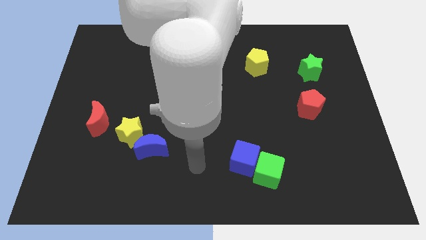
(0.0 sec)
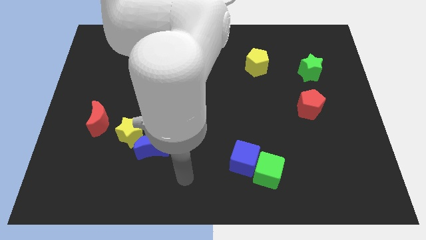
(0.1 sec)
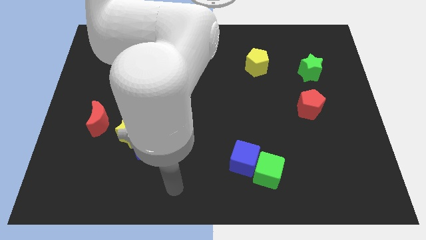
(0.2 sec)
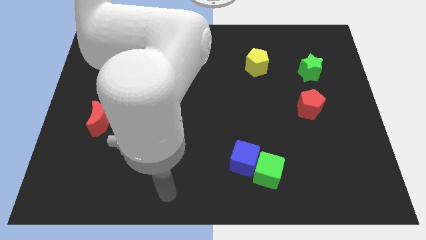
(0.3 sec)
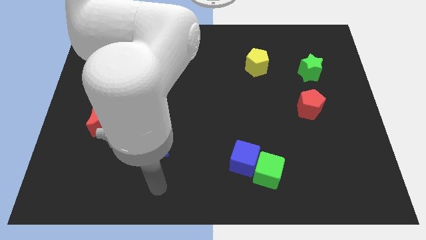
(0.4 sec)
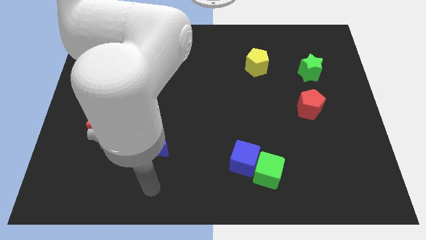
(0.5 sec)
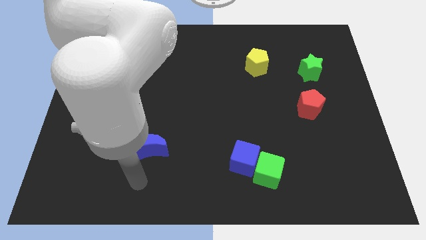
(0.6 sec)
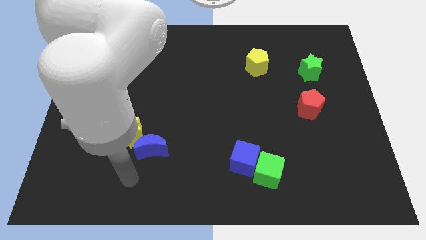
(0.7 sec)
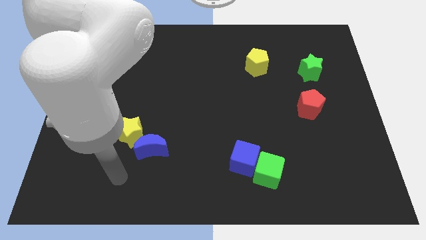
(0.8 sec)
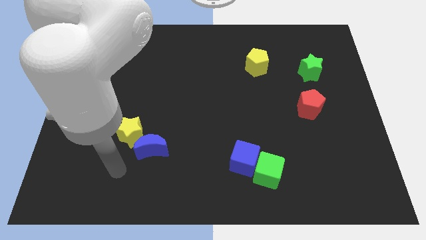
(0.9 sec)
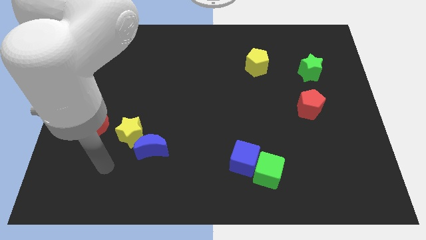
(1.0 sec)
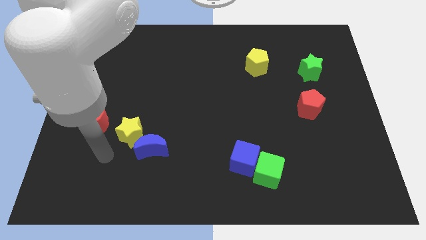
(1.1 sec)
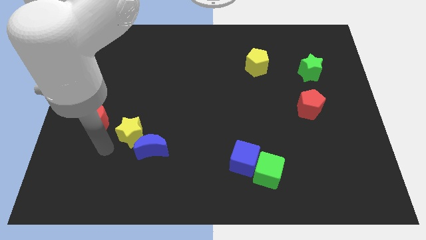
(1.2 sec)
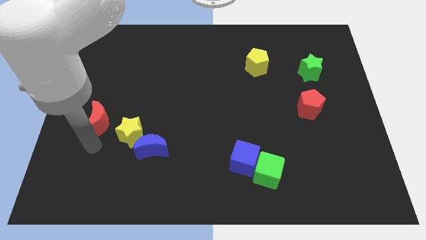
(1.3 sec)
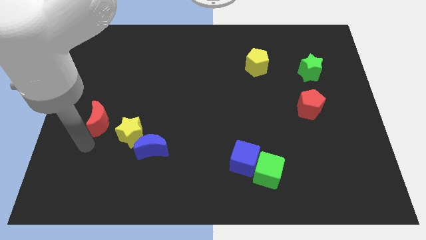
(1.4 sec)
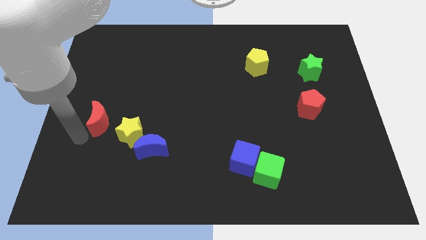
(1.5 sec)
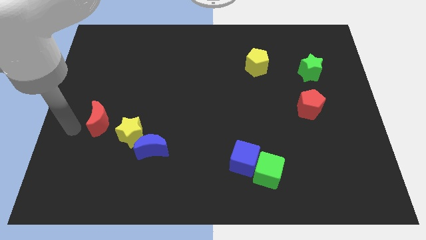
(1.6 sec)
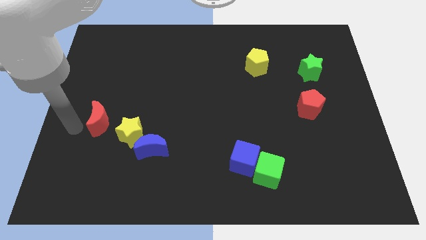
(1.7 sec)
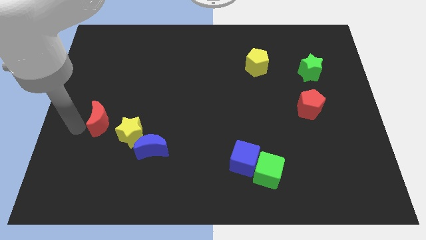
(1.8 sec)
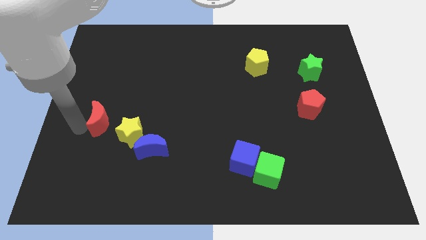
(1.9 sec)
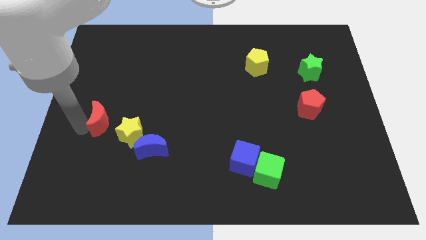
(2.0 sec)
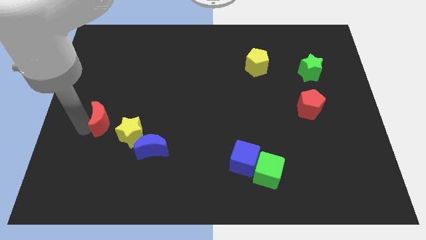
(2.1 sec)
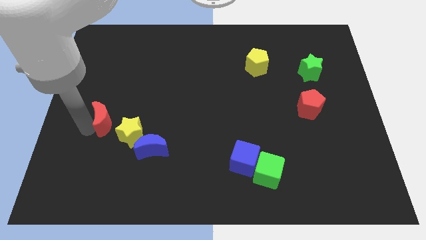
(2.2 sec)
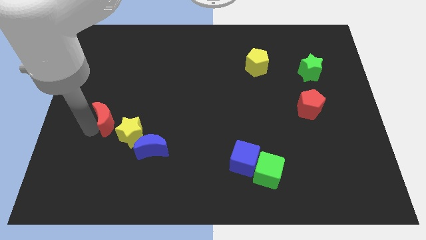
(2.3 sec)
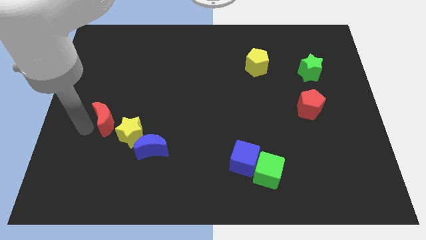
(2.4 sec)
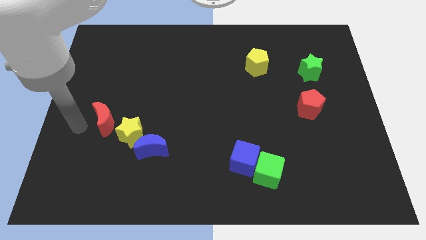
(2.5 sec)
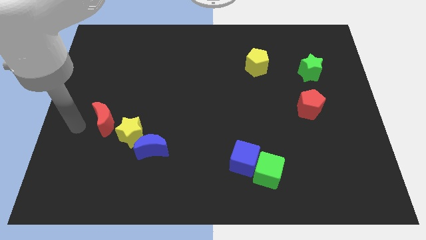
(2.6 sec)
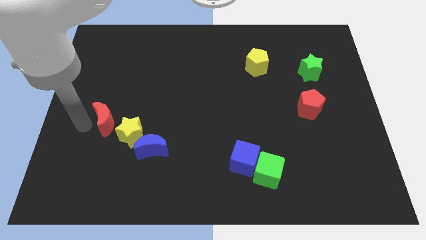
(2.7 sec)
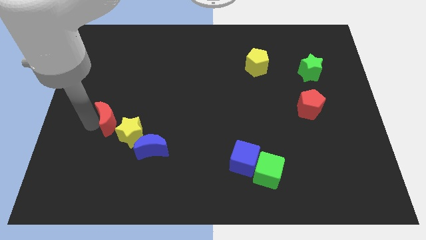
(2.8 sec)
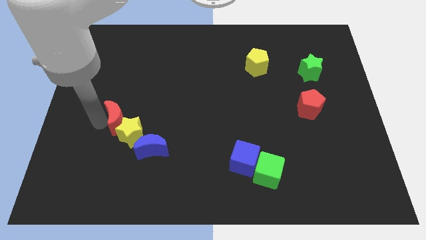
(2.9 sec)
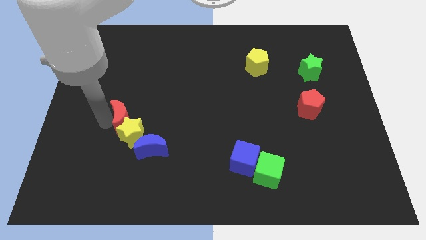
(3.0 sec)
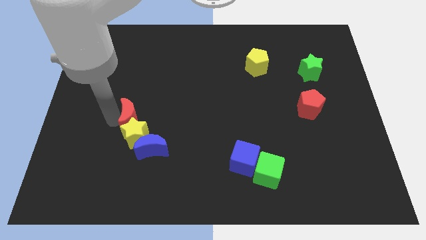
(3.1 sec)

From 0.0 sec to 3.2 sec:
push the red moon somewhat right

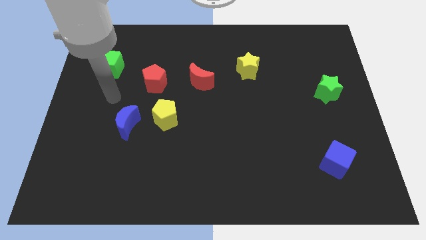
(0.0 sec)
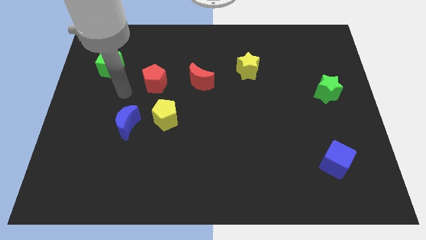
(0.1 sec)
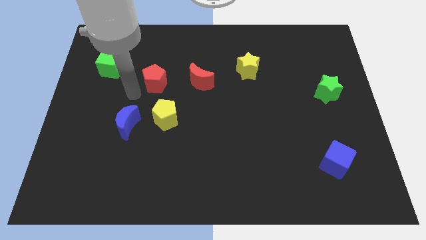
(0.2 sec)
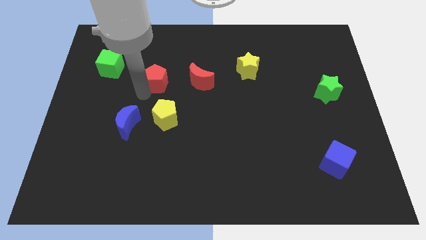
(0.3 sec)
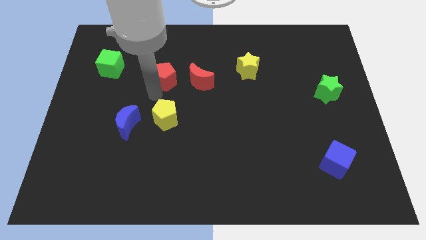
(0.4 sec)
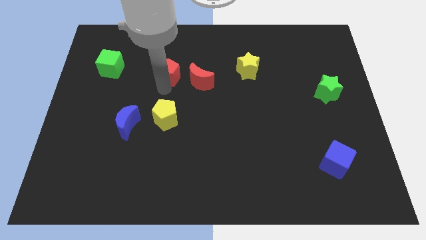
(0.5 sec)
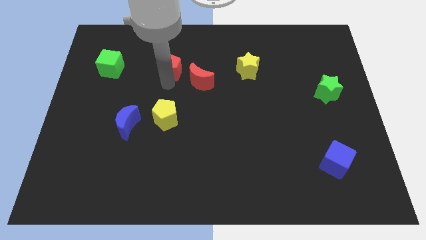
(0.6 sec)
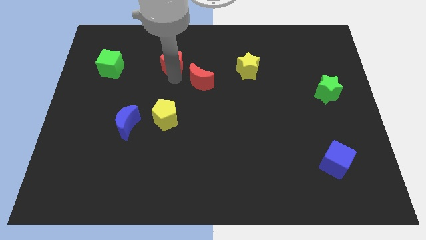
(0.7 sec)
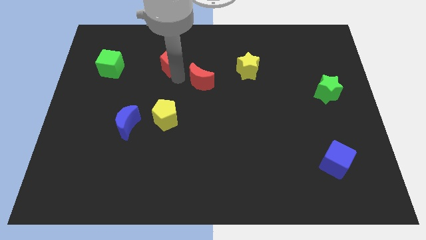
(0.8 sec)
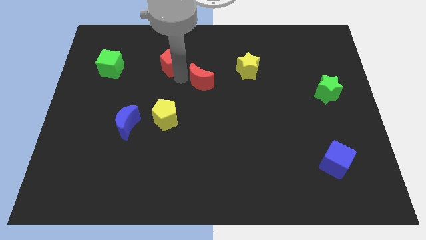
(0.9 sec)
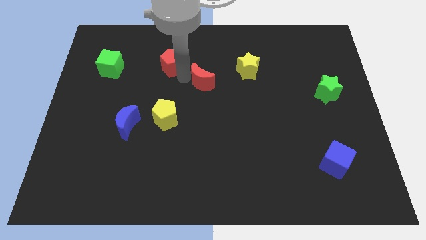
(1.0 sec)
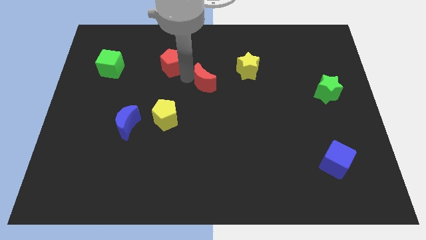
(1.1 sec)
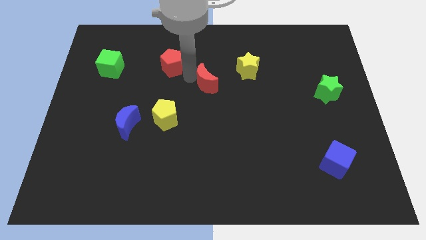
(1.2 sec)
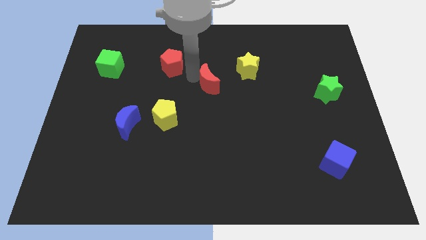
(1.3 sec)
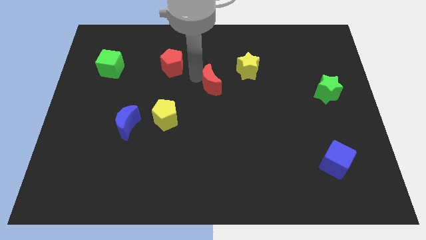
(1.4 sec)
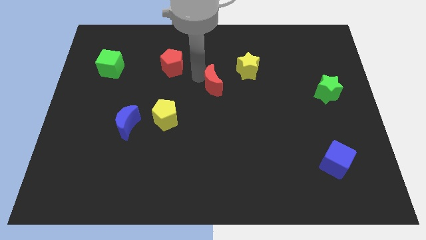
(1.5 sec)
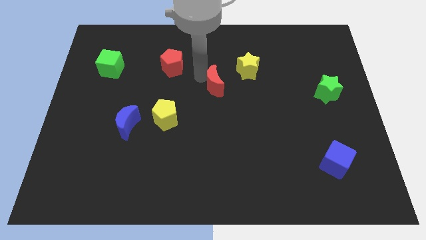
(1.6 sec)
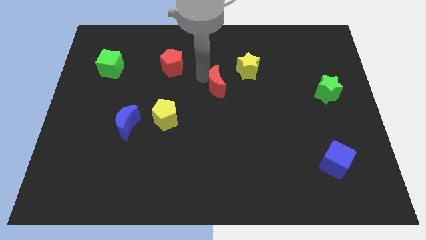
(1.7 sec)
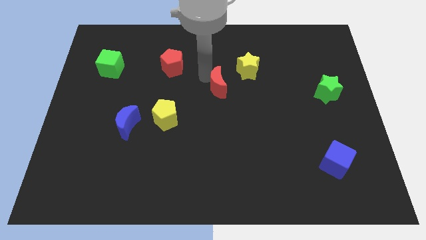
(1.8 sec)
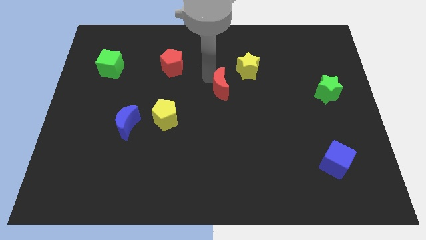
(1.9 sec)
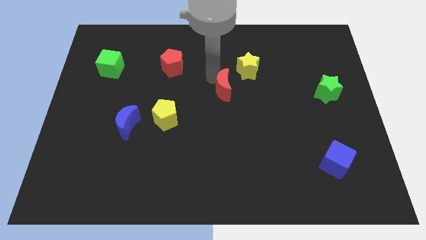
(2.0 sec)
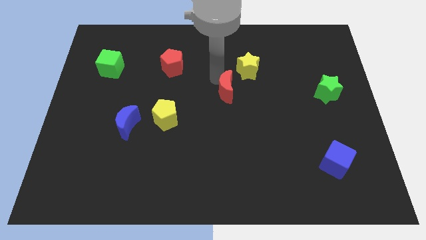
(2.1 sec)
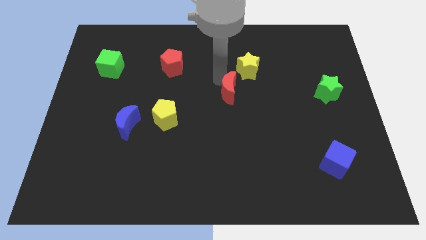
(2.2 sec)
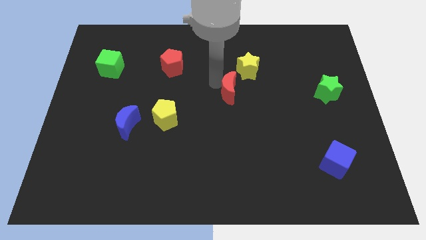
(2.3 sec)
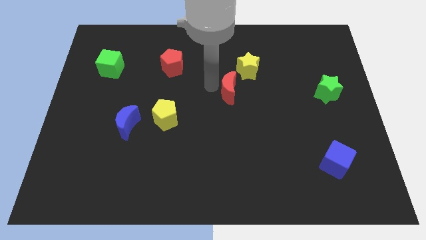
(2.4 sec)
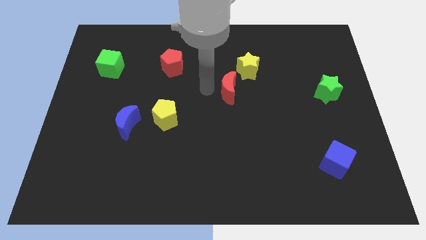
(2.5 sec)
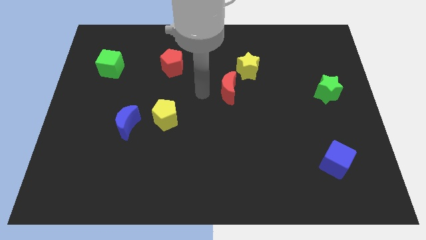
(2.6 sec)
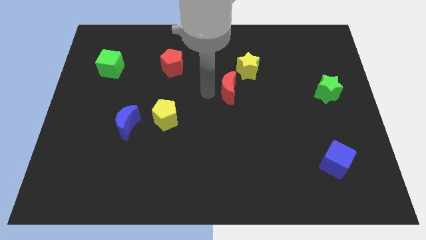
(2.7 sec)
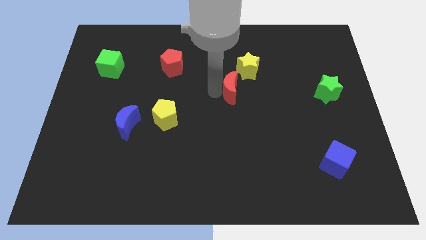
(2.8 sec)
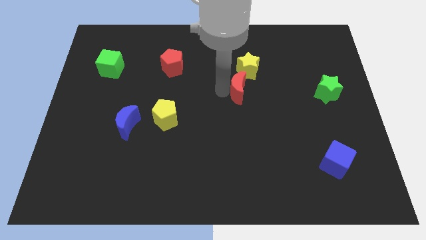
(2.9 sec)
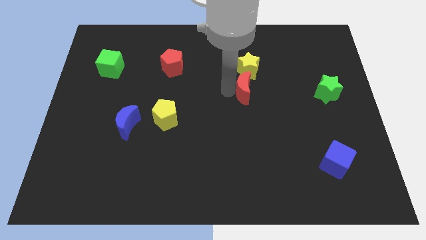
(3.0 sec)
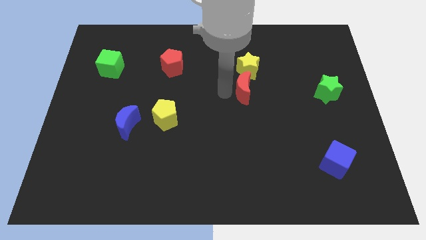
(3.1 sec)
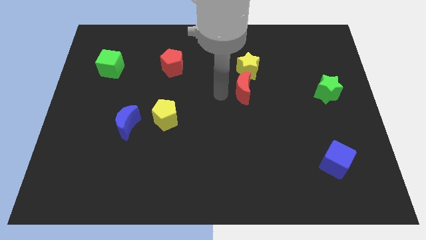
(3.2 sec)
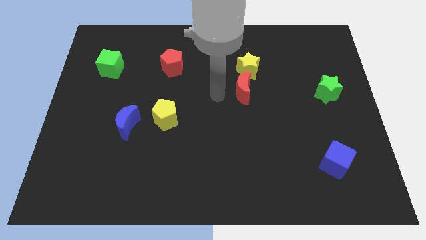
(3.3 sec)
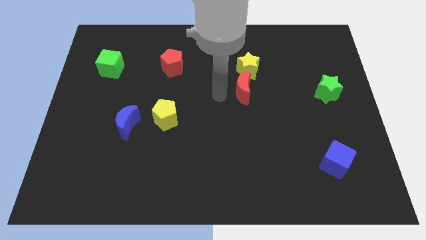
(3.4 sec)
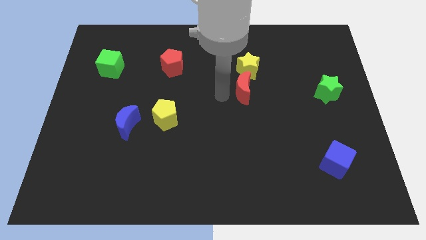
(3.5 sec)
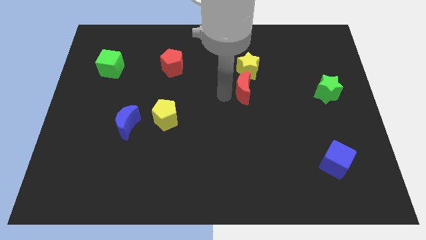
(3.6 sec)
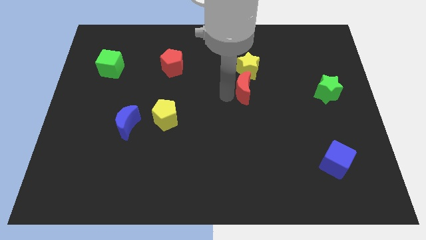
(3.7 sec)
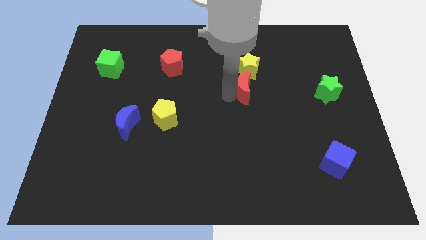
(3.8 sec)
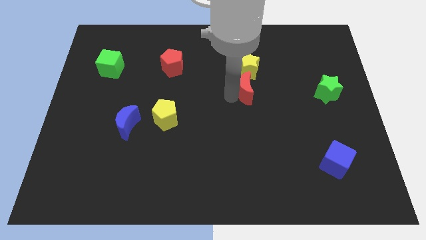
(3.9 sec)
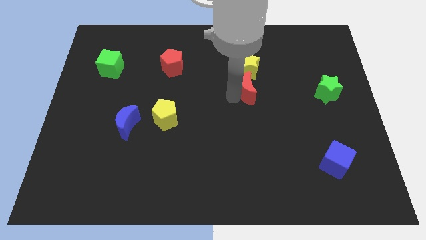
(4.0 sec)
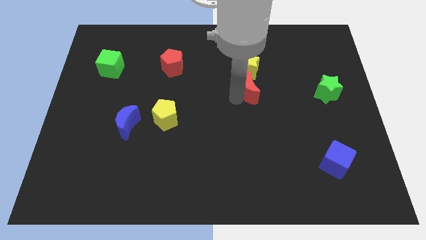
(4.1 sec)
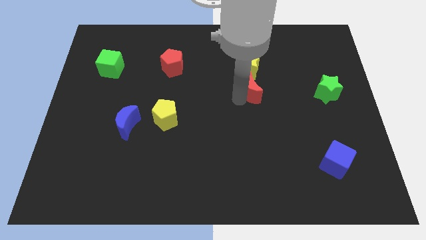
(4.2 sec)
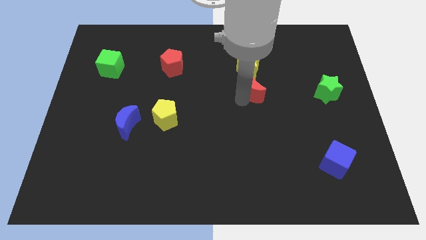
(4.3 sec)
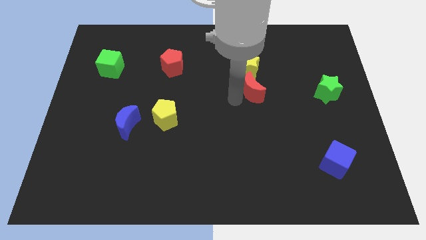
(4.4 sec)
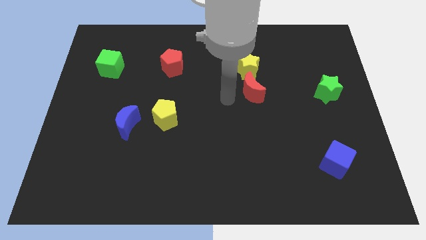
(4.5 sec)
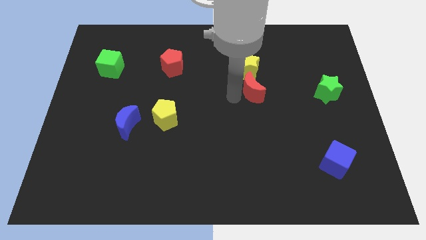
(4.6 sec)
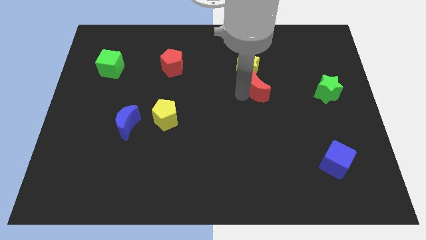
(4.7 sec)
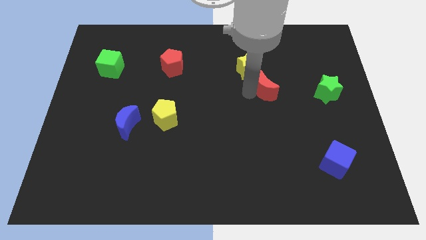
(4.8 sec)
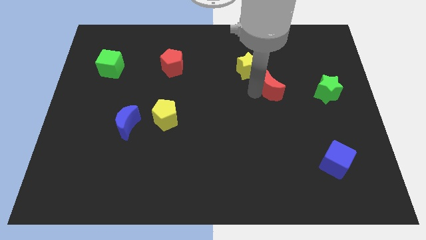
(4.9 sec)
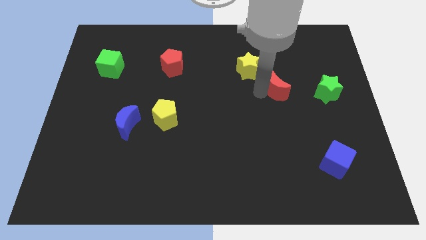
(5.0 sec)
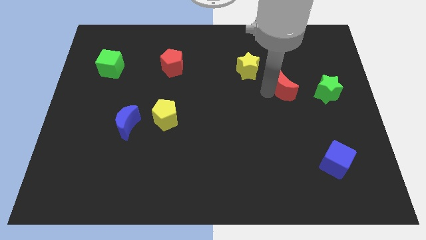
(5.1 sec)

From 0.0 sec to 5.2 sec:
push the red moon to the right
